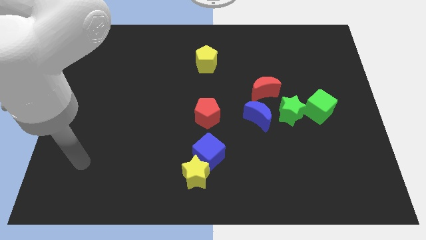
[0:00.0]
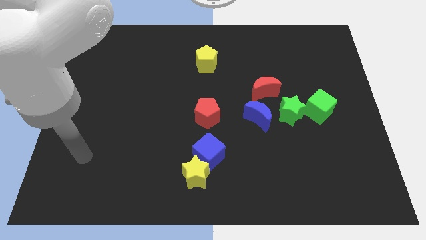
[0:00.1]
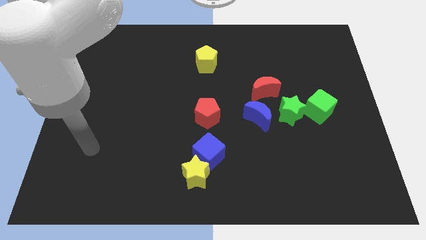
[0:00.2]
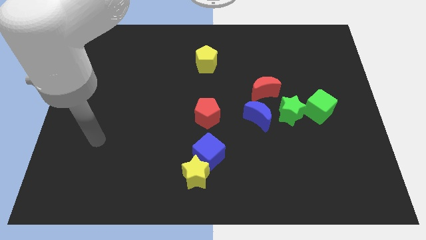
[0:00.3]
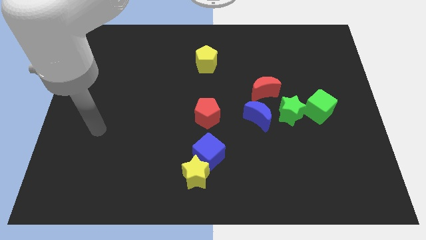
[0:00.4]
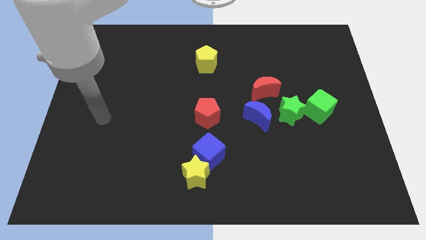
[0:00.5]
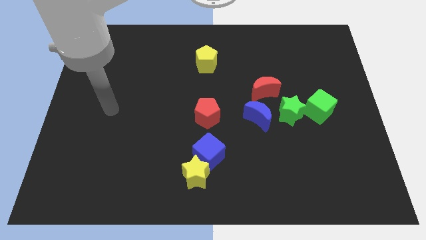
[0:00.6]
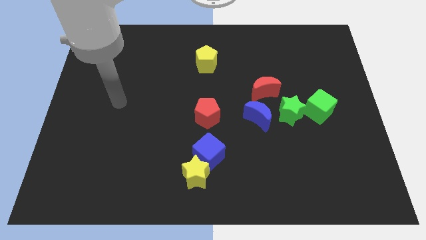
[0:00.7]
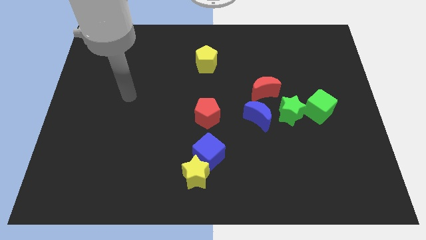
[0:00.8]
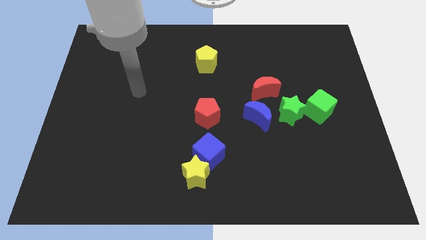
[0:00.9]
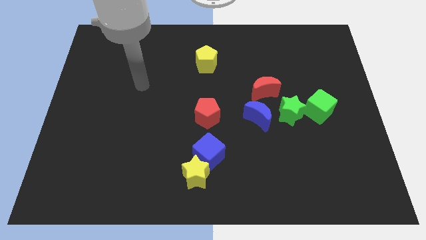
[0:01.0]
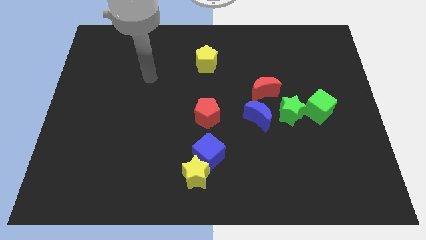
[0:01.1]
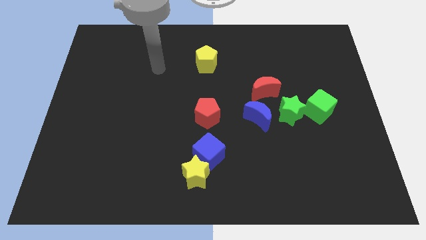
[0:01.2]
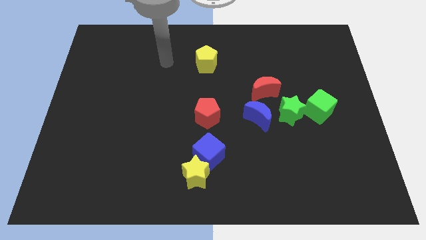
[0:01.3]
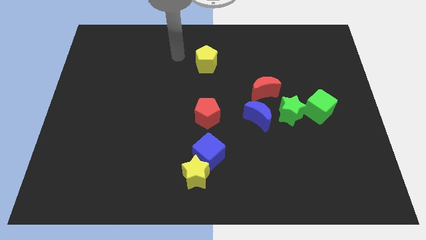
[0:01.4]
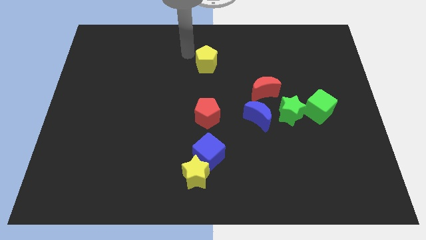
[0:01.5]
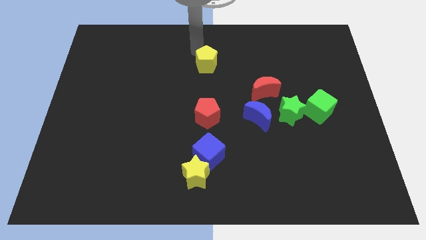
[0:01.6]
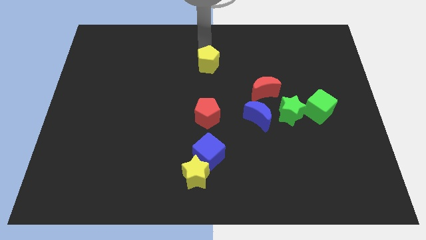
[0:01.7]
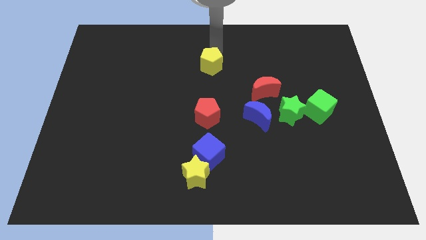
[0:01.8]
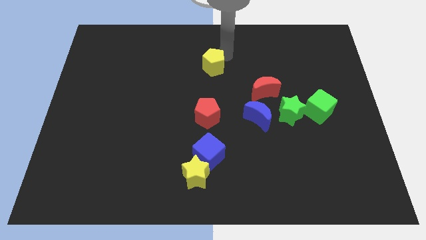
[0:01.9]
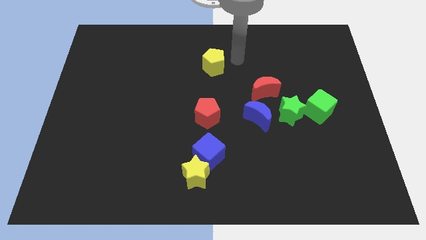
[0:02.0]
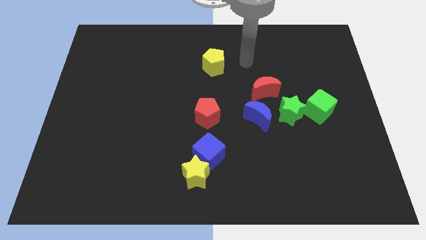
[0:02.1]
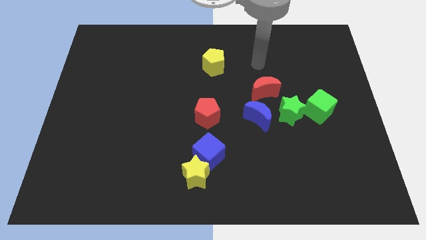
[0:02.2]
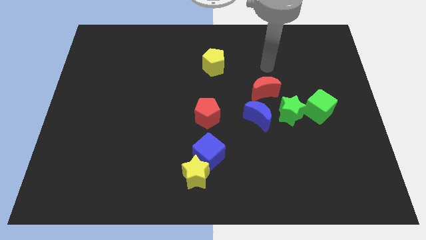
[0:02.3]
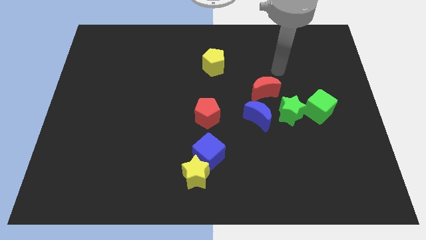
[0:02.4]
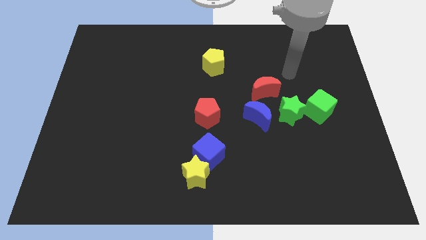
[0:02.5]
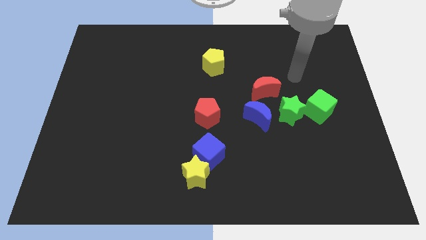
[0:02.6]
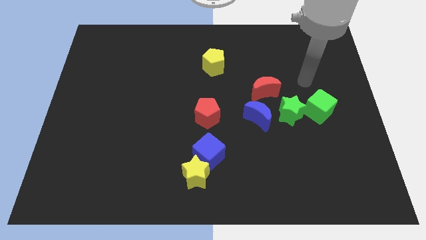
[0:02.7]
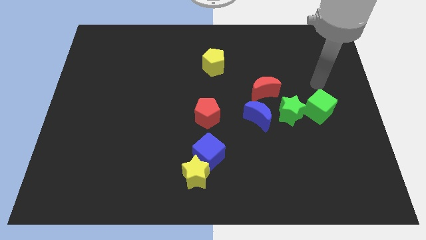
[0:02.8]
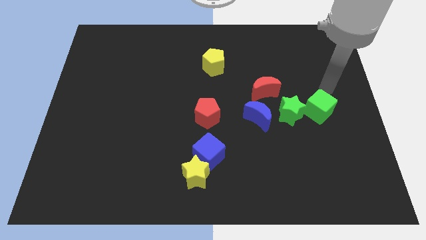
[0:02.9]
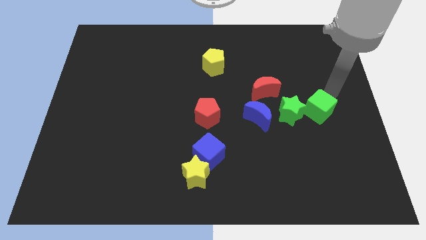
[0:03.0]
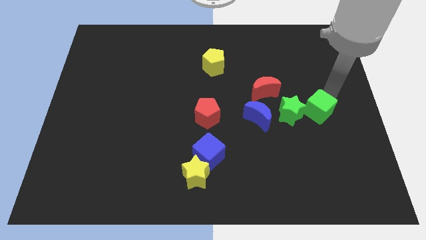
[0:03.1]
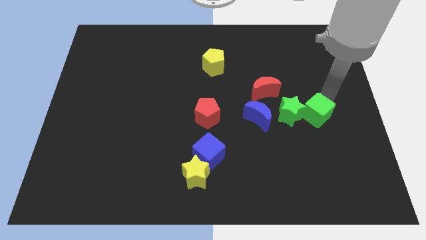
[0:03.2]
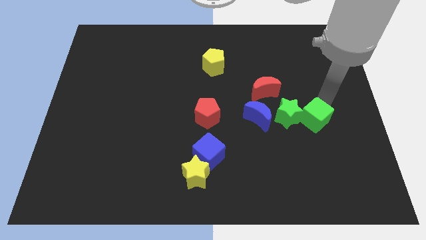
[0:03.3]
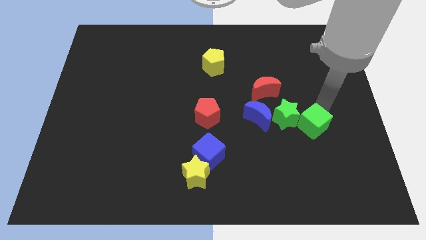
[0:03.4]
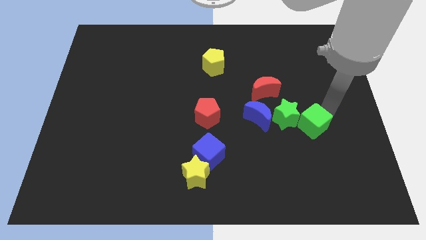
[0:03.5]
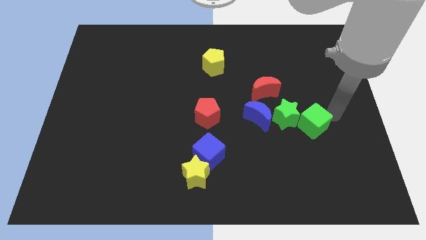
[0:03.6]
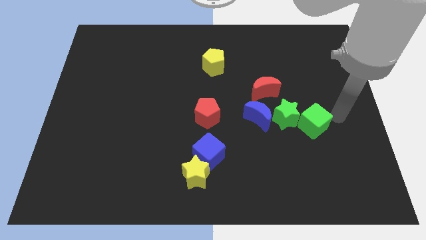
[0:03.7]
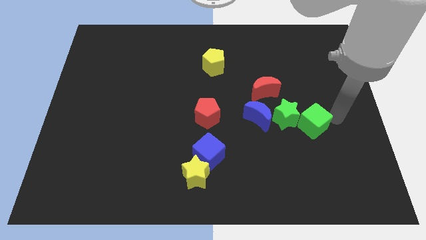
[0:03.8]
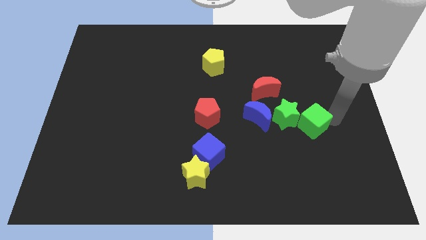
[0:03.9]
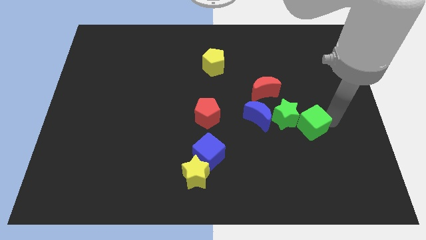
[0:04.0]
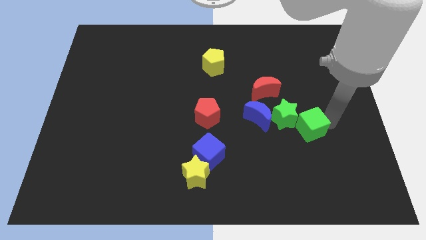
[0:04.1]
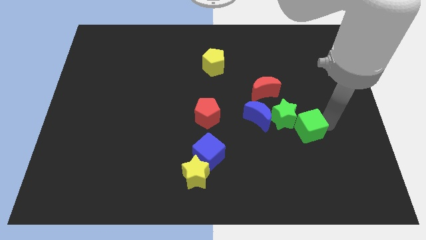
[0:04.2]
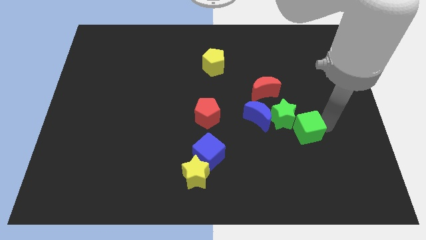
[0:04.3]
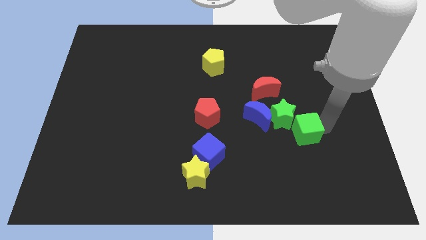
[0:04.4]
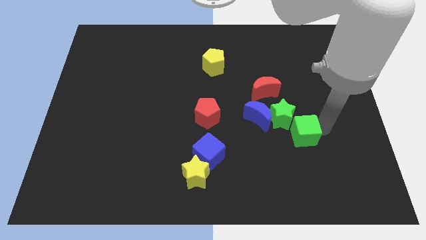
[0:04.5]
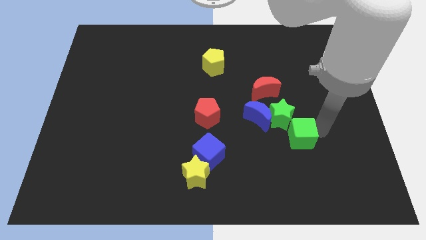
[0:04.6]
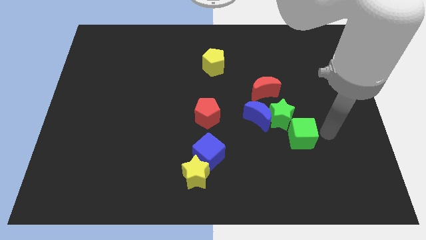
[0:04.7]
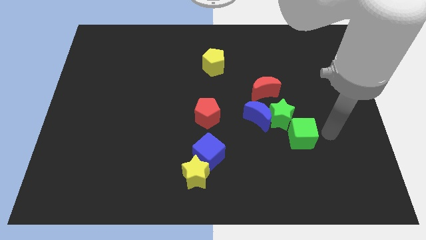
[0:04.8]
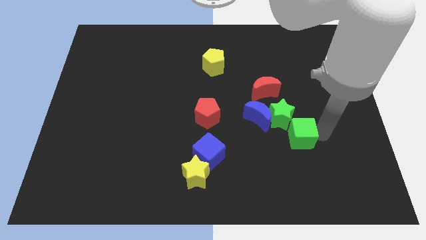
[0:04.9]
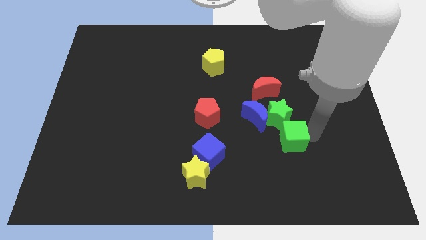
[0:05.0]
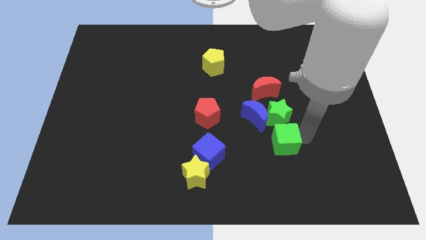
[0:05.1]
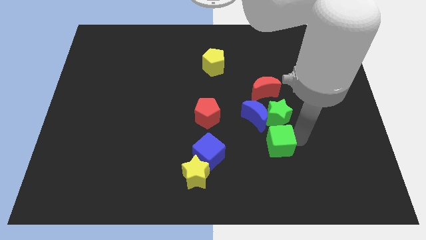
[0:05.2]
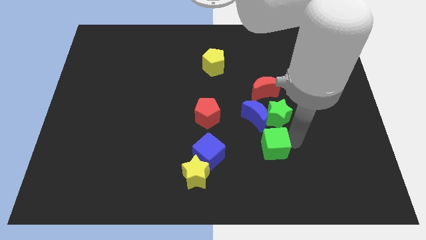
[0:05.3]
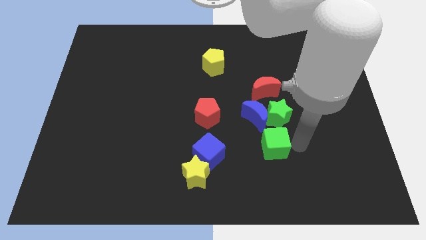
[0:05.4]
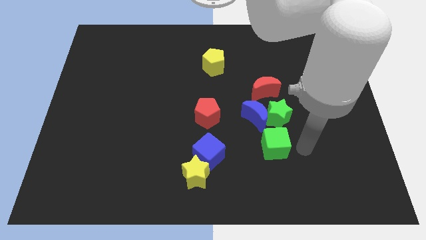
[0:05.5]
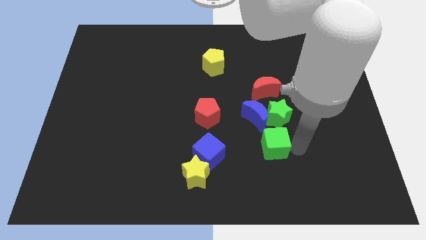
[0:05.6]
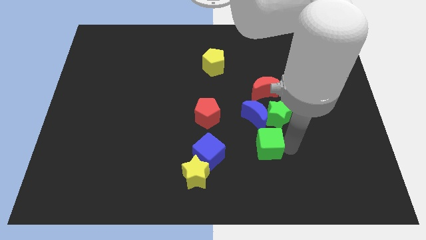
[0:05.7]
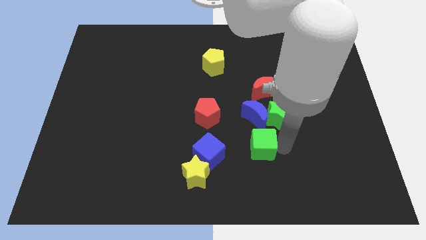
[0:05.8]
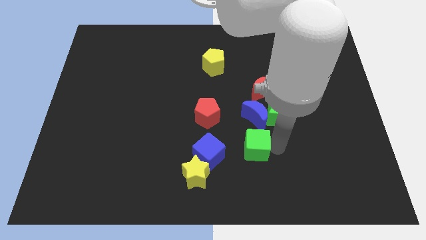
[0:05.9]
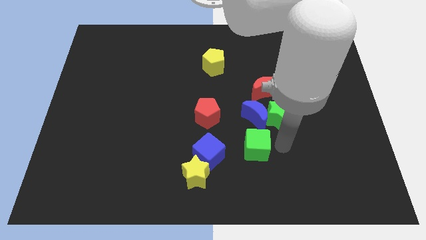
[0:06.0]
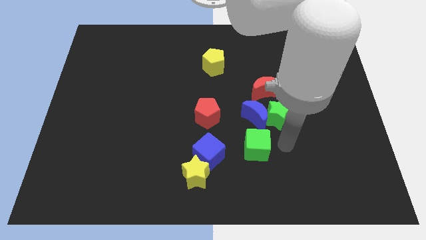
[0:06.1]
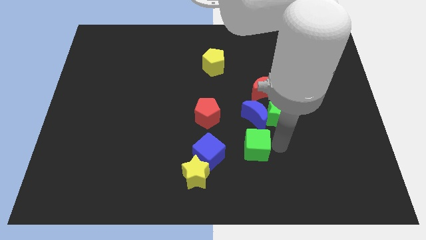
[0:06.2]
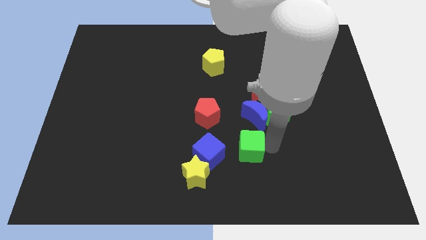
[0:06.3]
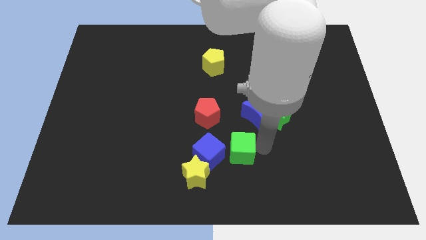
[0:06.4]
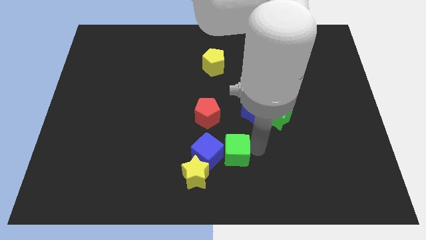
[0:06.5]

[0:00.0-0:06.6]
slide the green cube close to the blue cube
